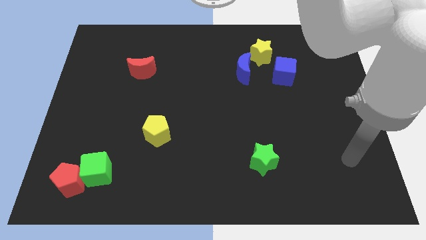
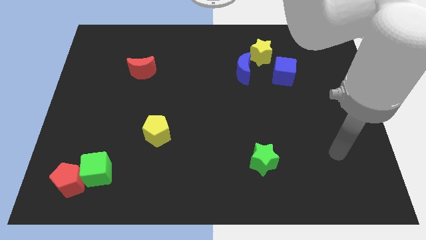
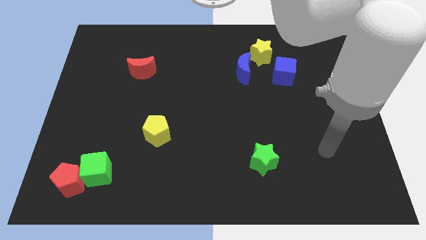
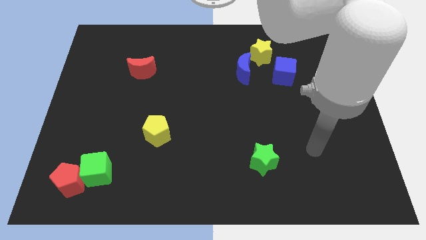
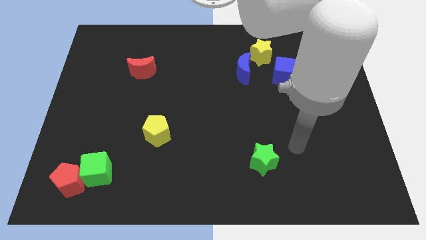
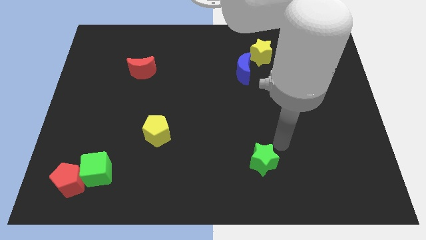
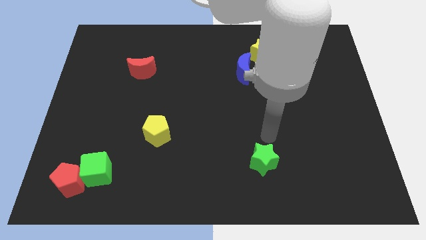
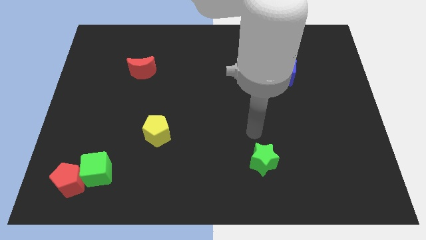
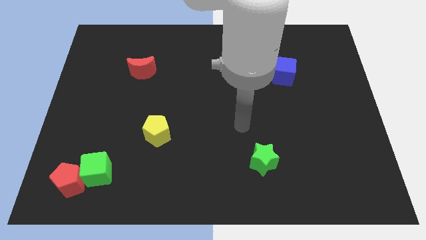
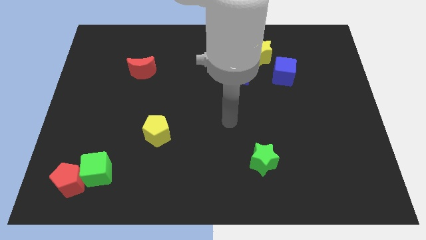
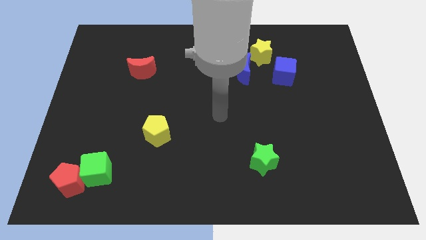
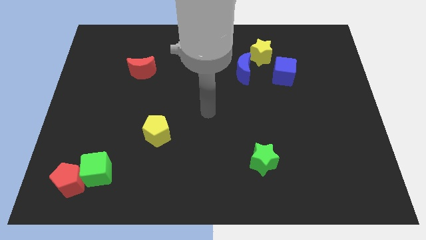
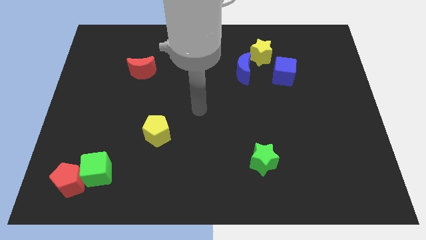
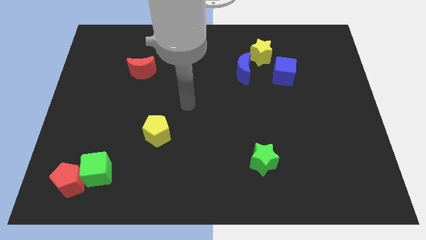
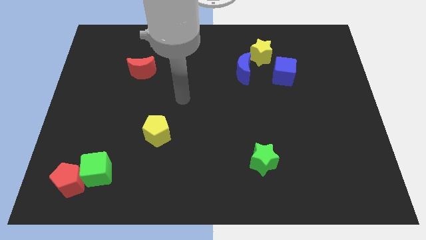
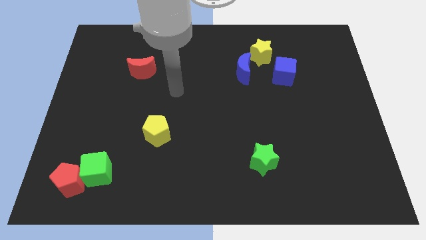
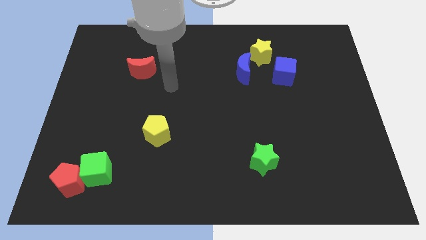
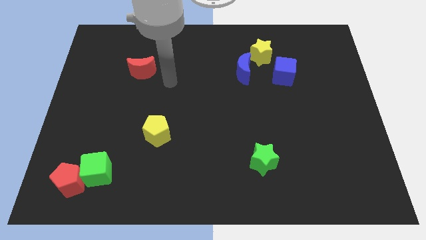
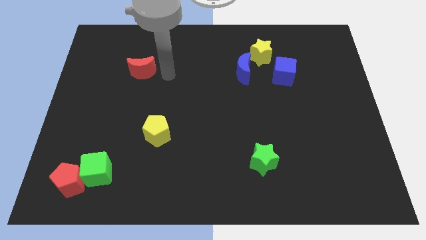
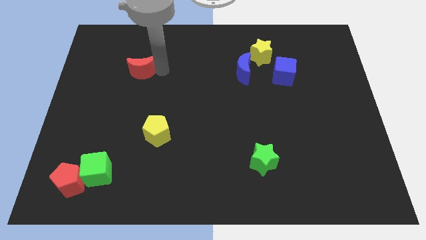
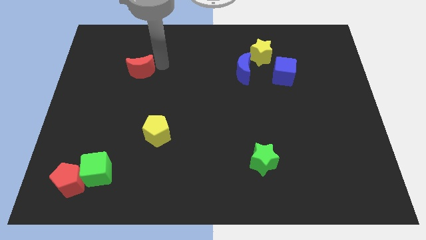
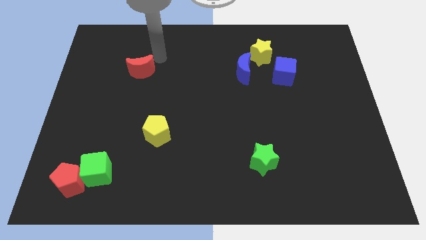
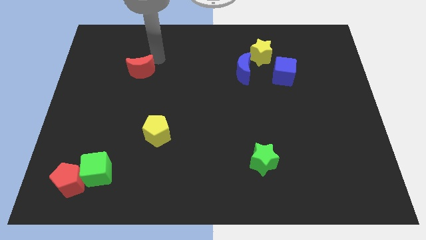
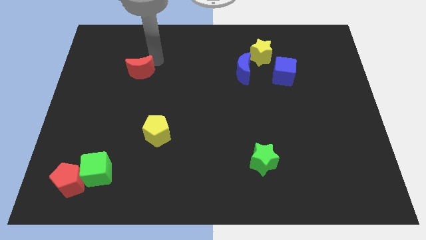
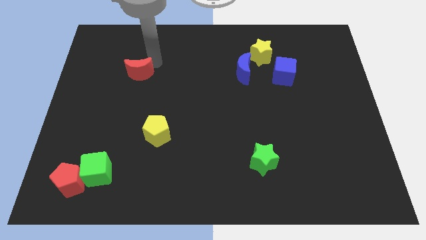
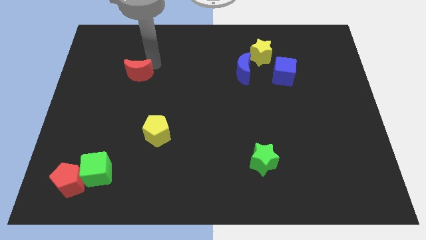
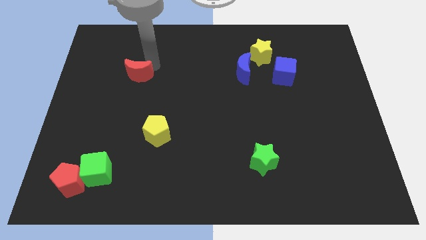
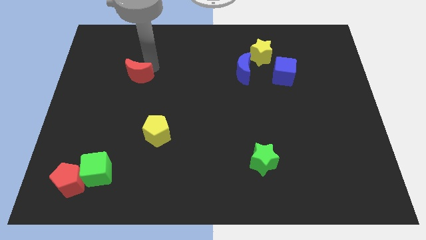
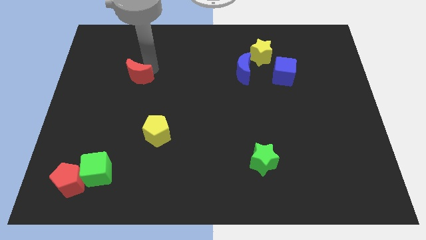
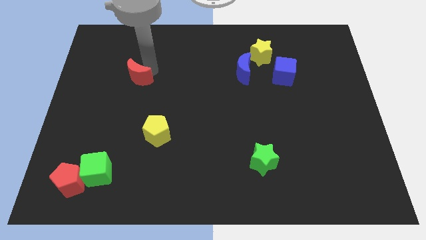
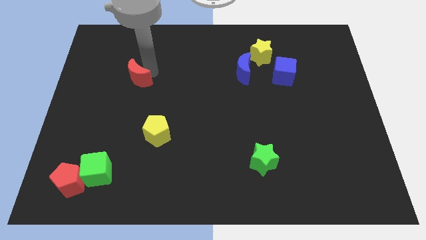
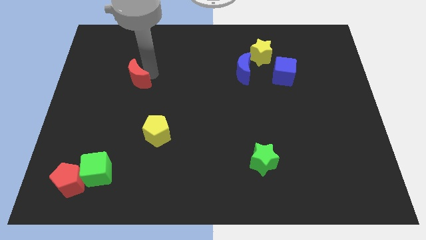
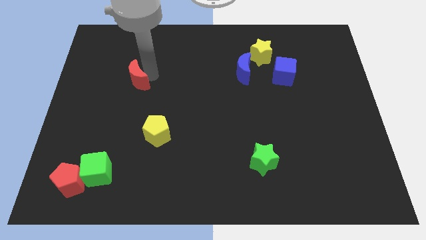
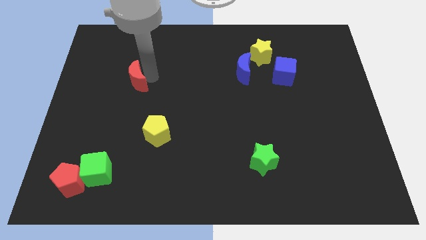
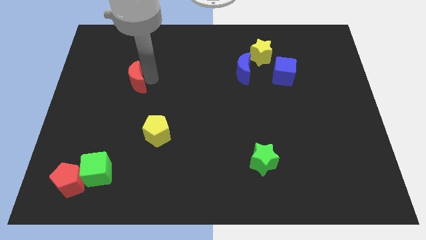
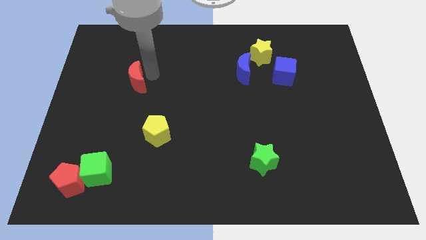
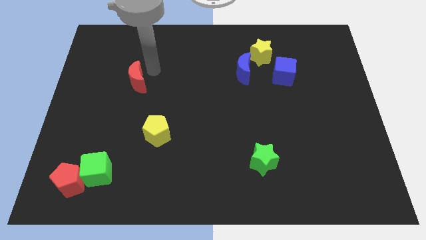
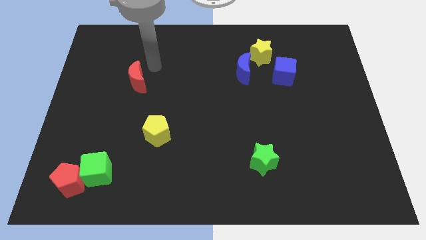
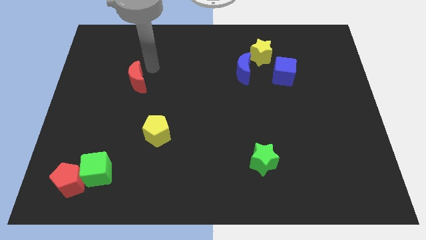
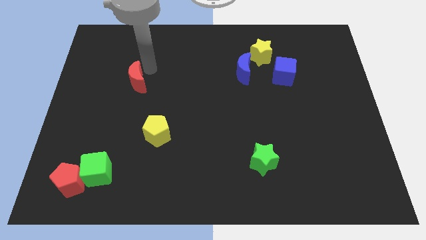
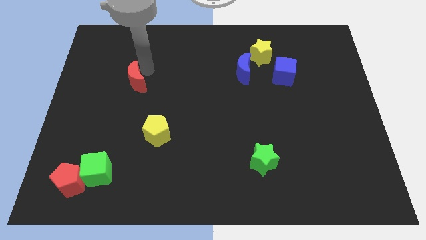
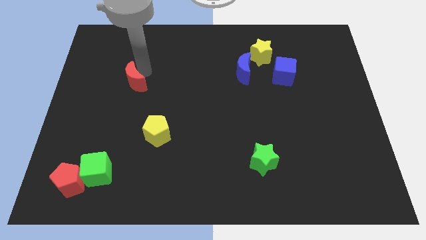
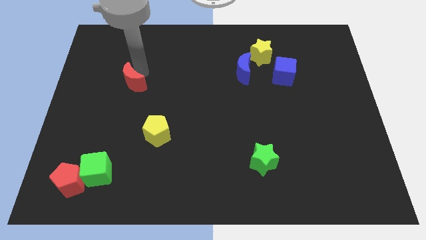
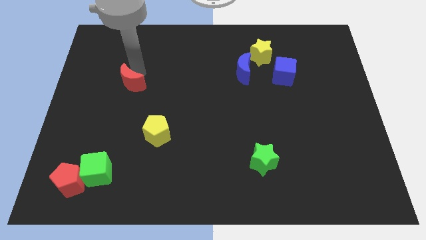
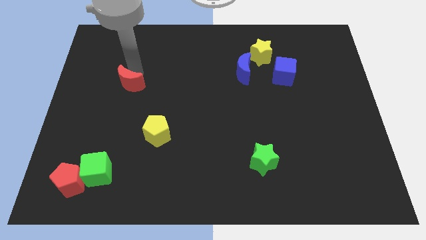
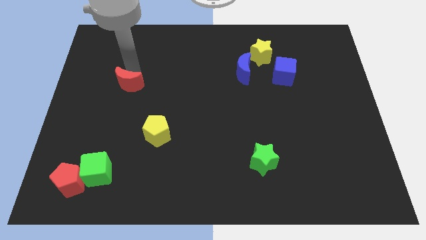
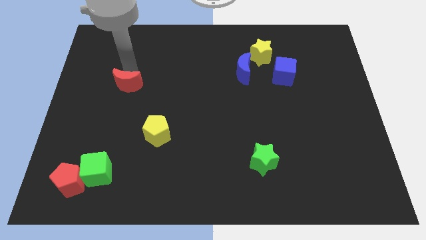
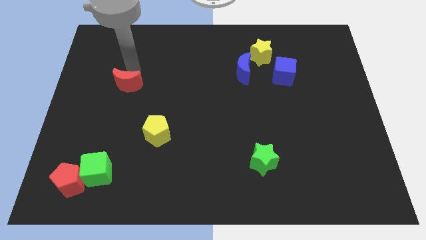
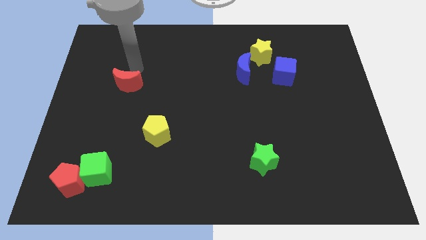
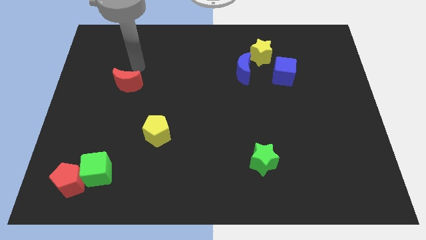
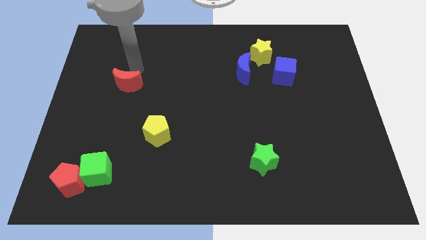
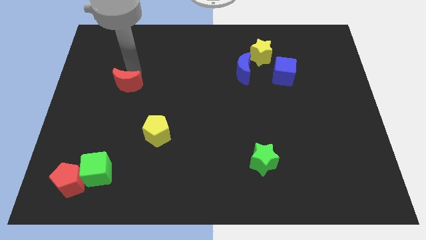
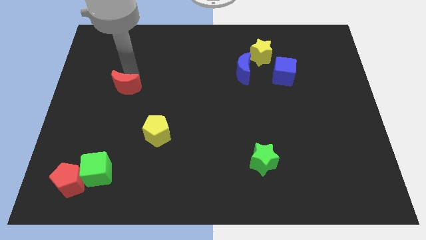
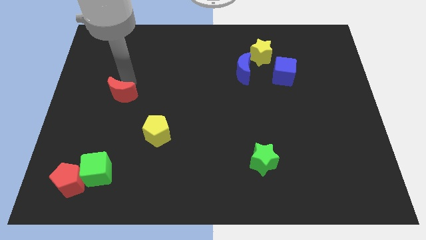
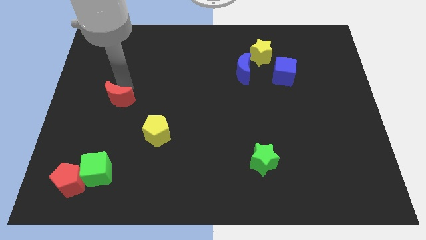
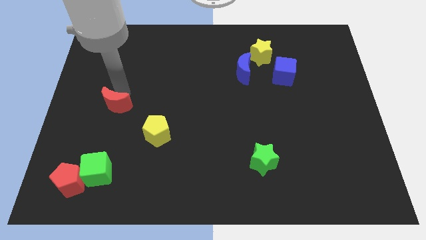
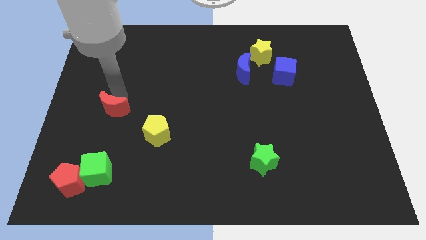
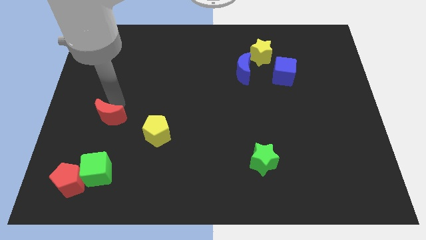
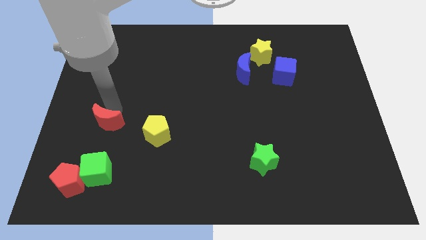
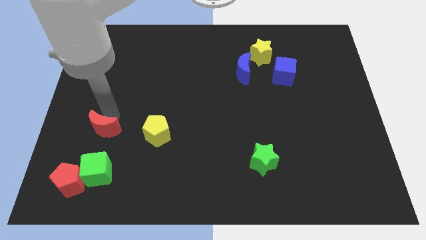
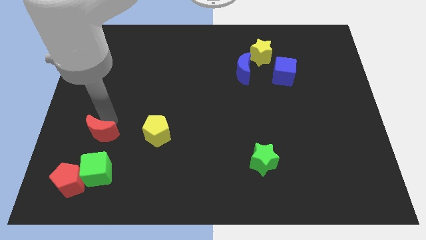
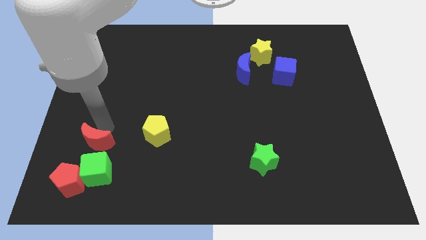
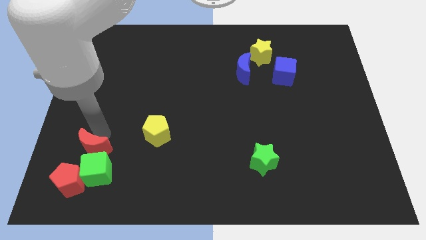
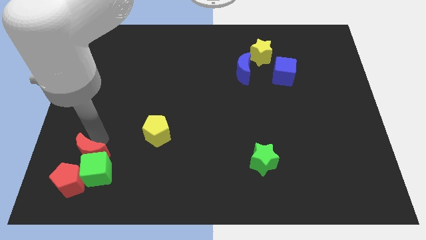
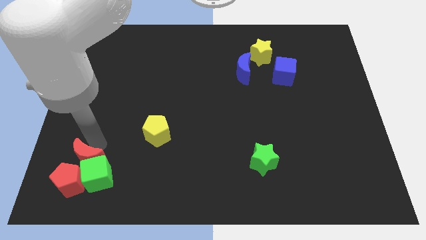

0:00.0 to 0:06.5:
move the red moon next to the red pentagon

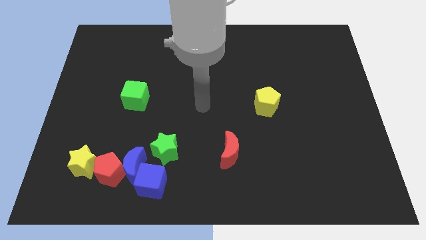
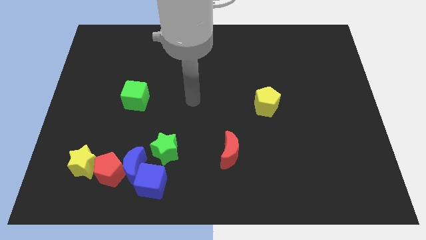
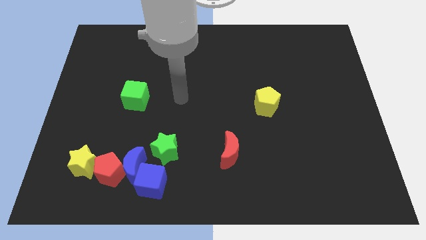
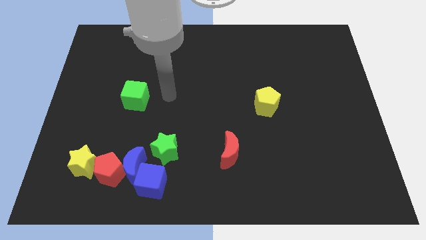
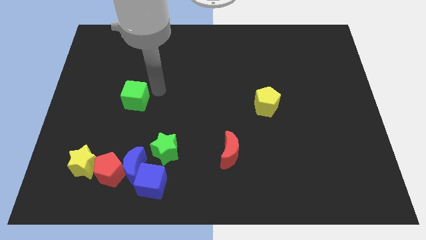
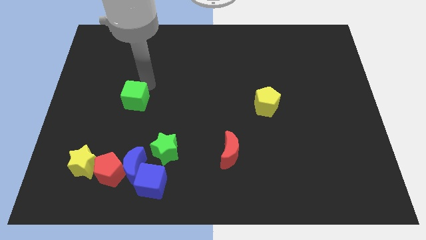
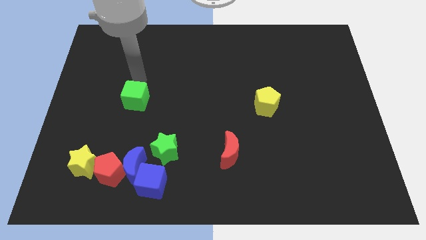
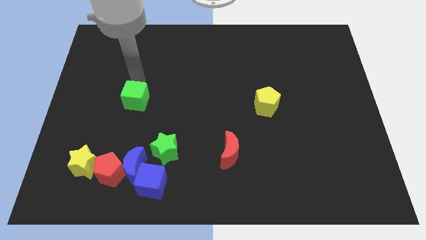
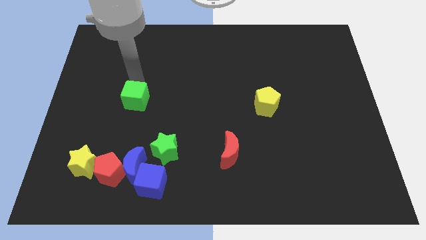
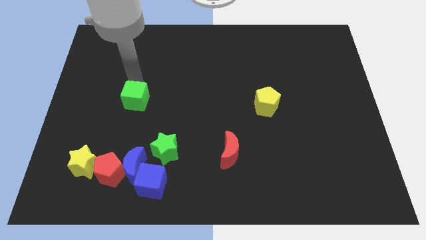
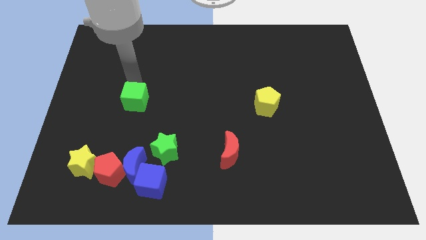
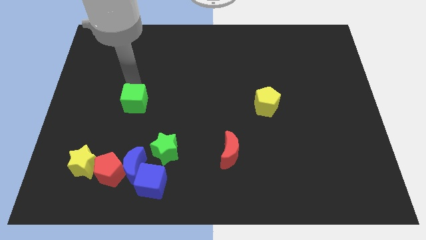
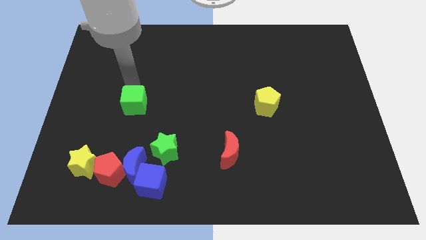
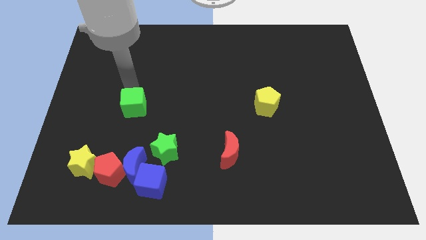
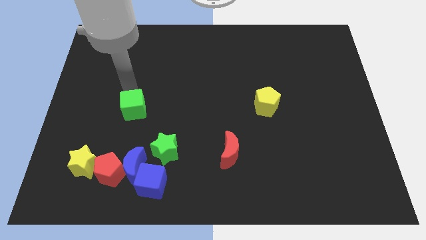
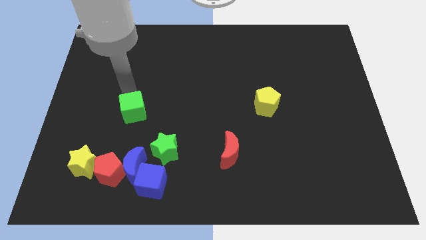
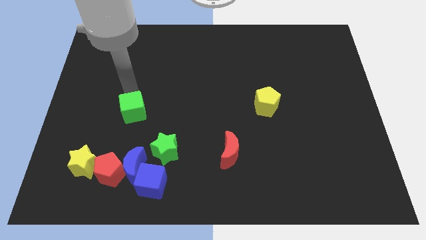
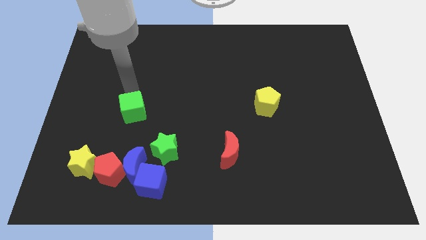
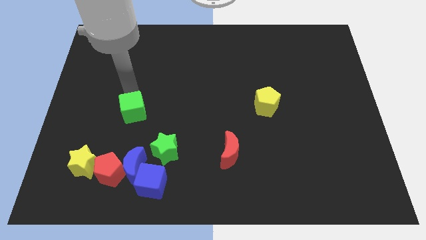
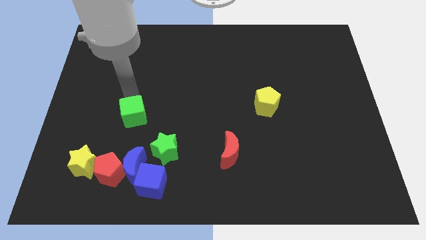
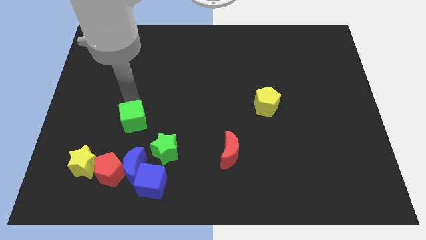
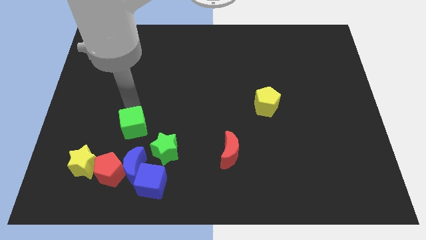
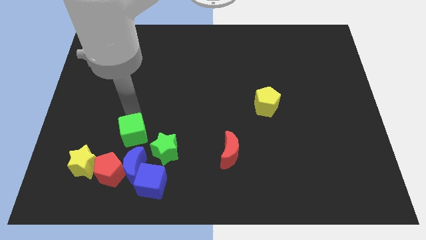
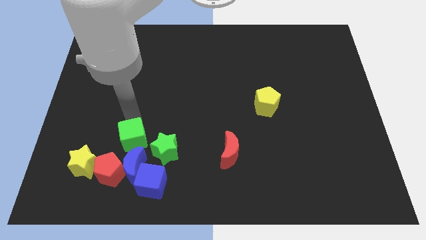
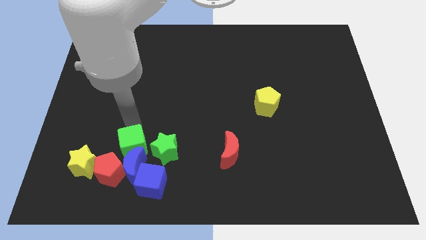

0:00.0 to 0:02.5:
move the green cube close to the blue moon
